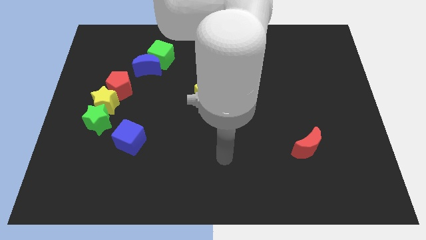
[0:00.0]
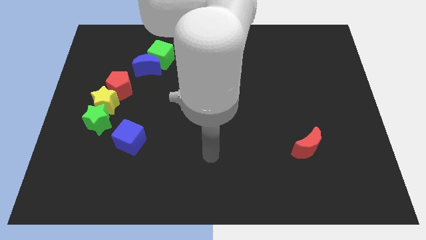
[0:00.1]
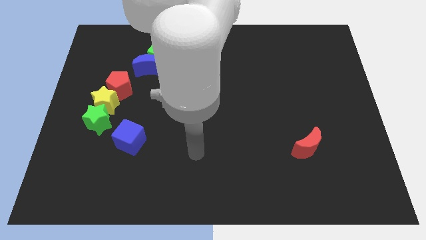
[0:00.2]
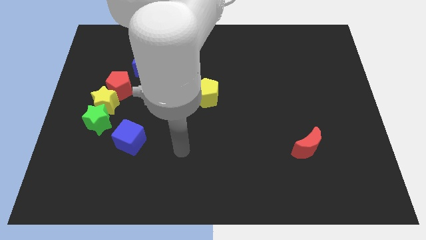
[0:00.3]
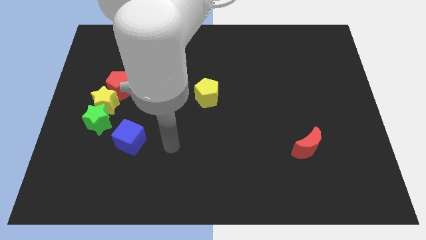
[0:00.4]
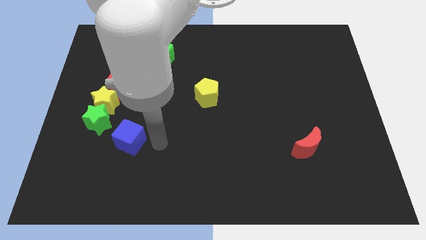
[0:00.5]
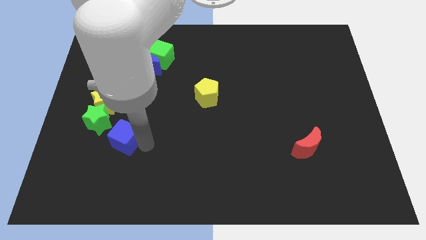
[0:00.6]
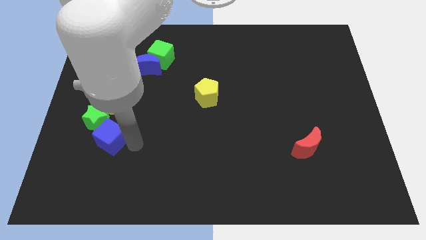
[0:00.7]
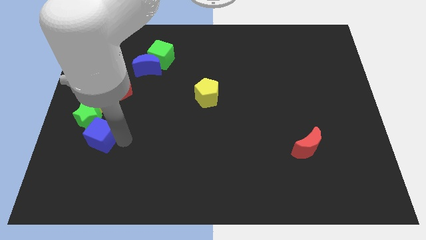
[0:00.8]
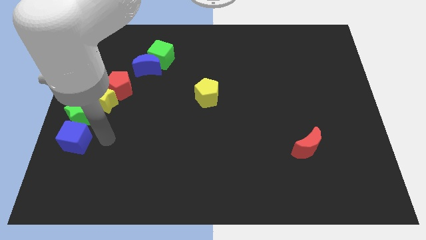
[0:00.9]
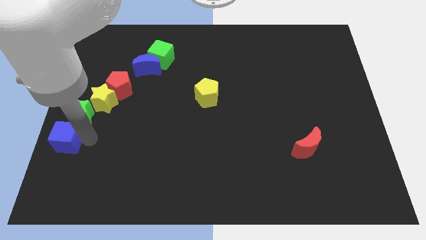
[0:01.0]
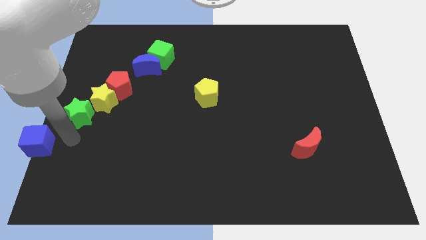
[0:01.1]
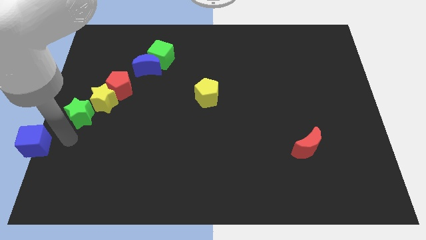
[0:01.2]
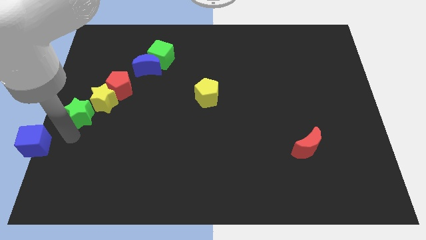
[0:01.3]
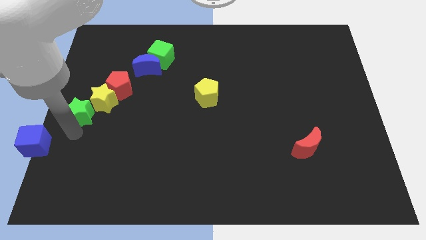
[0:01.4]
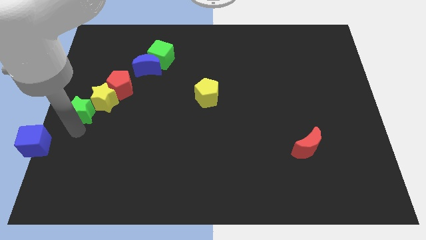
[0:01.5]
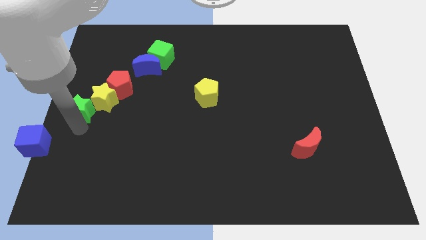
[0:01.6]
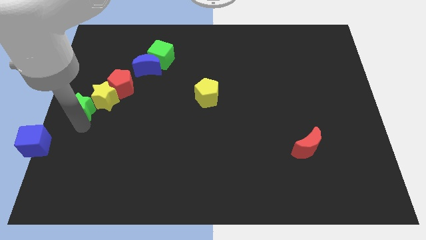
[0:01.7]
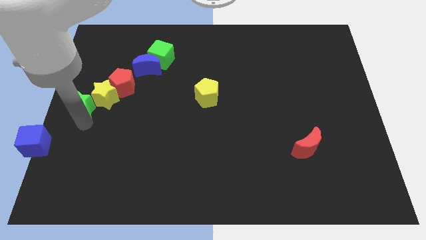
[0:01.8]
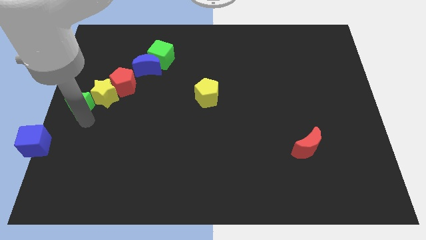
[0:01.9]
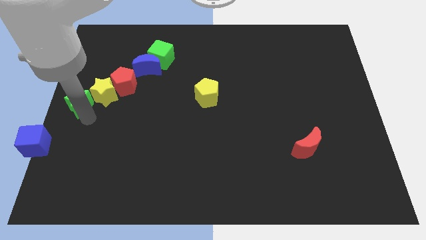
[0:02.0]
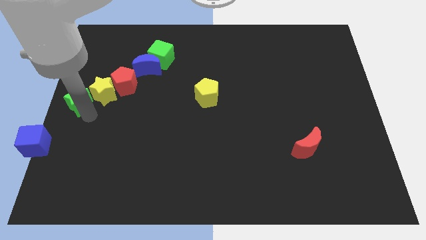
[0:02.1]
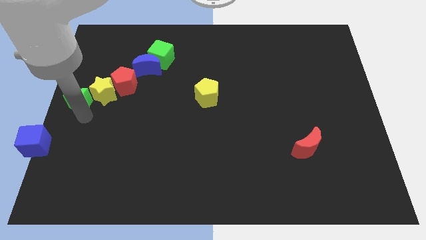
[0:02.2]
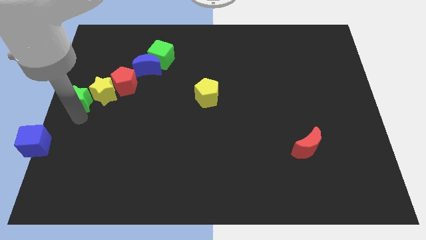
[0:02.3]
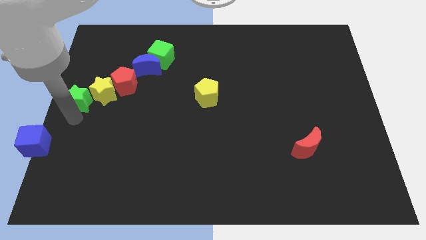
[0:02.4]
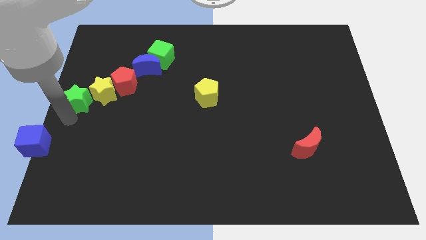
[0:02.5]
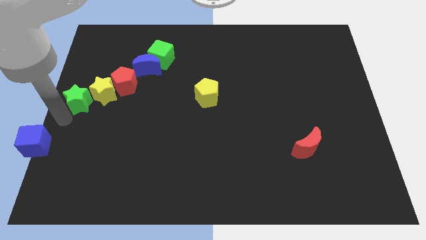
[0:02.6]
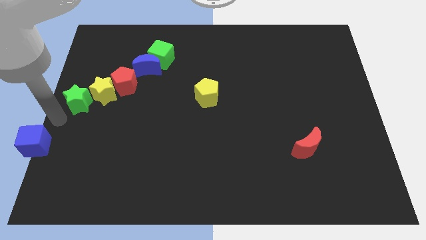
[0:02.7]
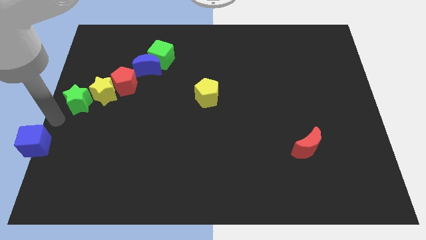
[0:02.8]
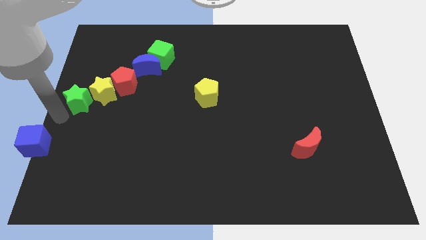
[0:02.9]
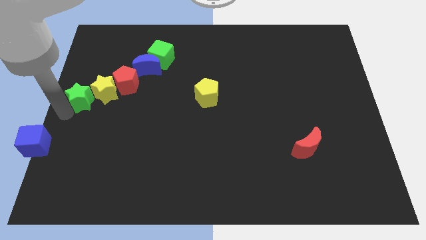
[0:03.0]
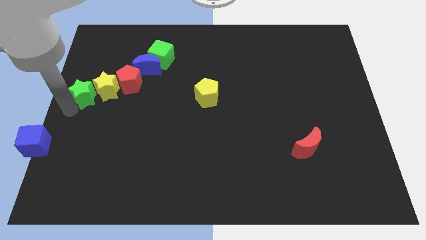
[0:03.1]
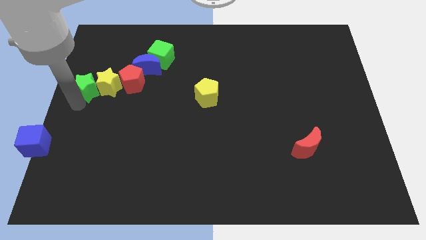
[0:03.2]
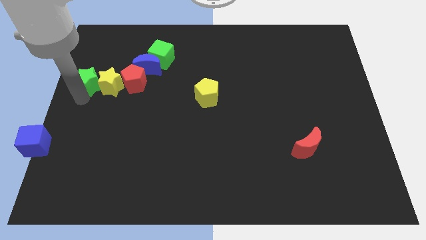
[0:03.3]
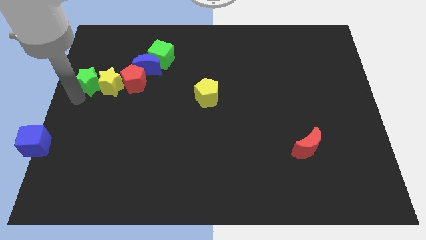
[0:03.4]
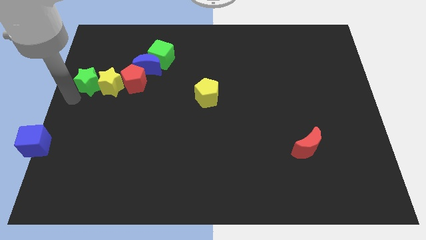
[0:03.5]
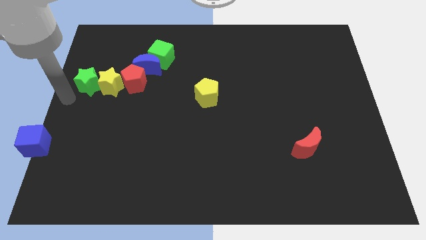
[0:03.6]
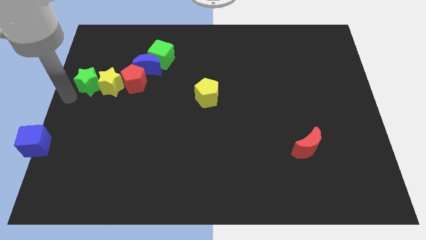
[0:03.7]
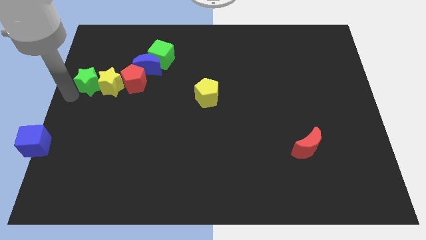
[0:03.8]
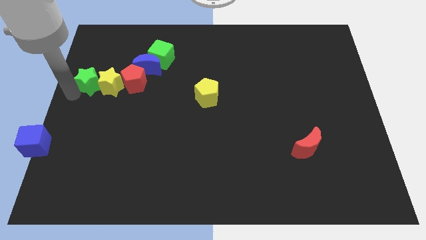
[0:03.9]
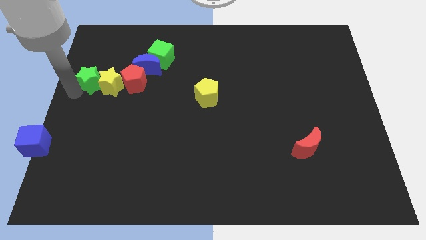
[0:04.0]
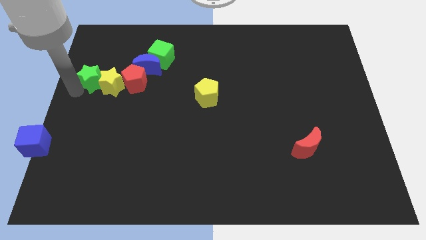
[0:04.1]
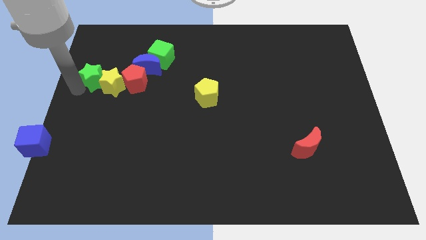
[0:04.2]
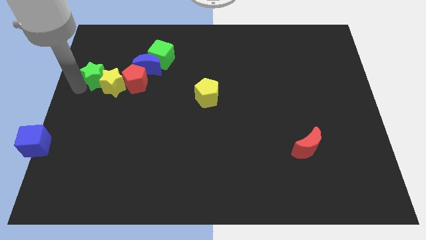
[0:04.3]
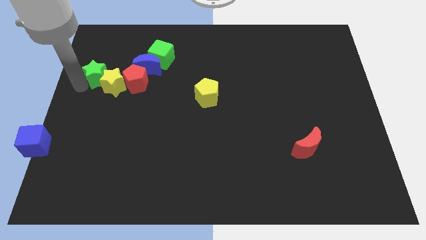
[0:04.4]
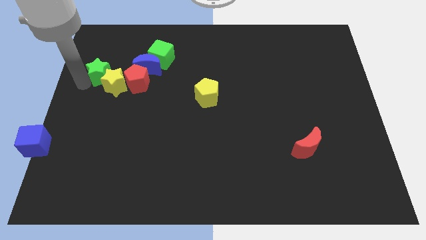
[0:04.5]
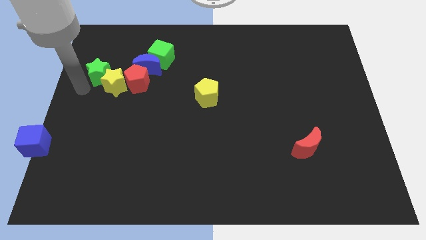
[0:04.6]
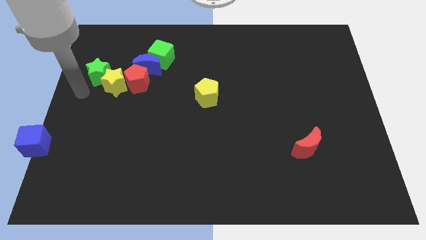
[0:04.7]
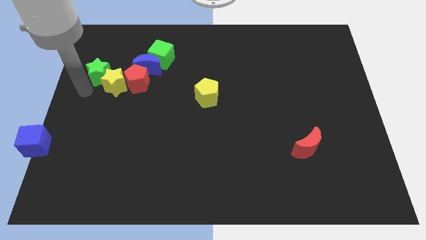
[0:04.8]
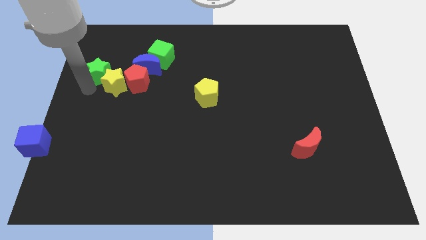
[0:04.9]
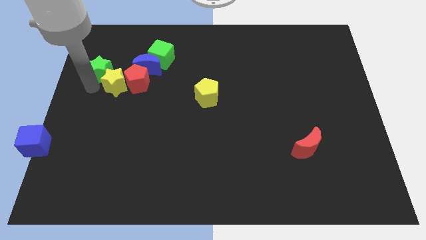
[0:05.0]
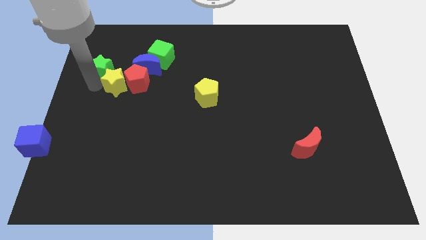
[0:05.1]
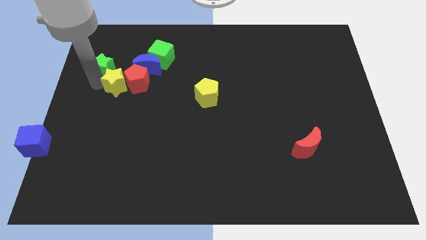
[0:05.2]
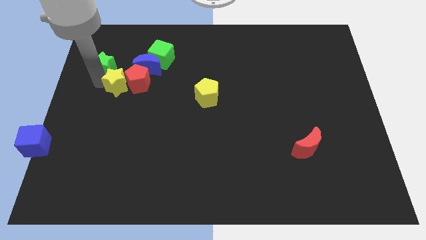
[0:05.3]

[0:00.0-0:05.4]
push the green star left of the green cube

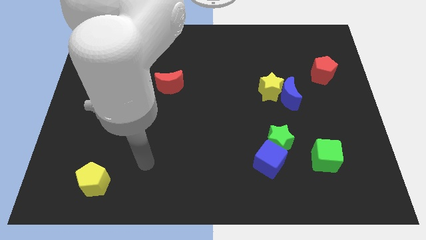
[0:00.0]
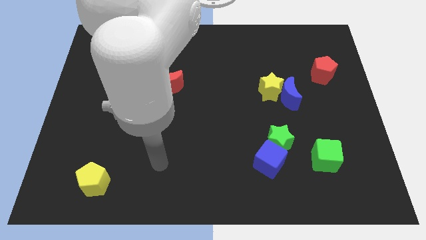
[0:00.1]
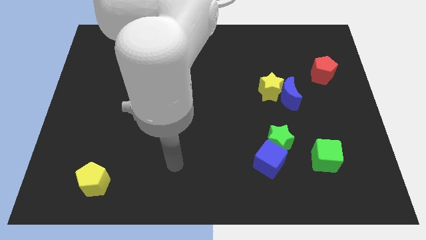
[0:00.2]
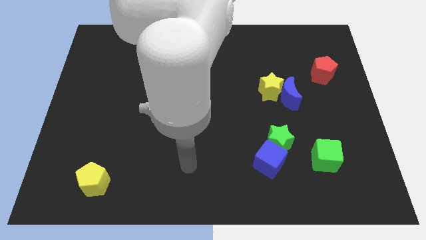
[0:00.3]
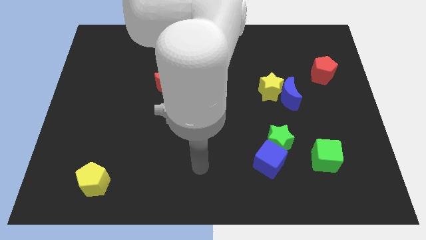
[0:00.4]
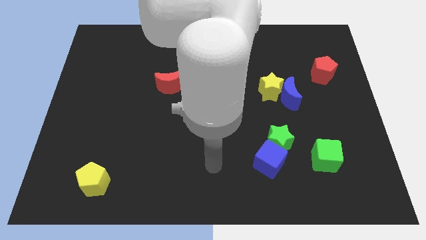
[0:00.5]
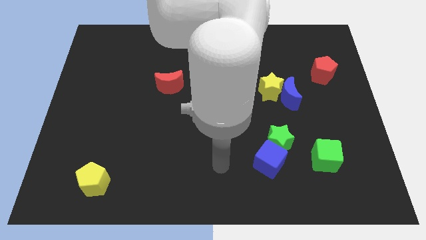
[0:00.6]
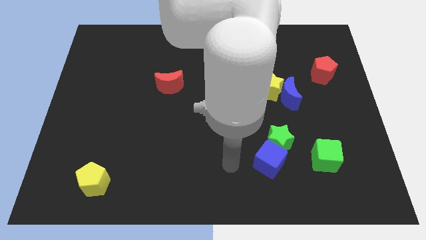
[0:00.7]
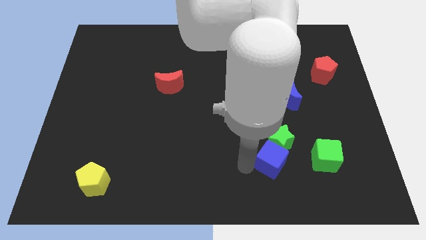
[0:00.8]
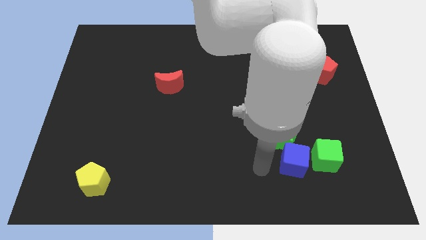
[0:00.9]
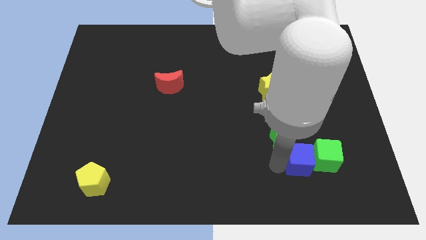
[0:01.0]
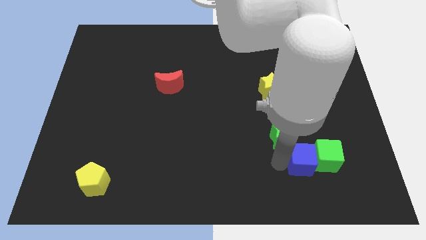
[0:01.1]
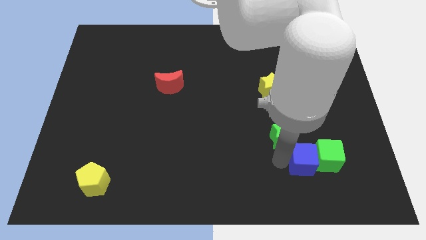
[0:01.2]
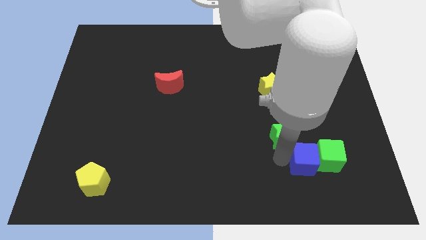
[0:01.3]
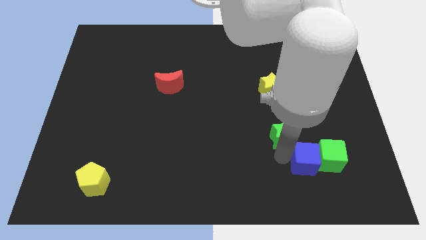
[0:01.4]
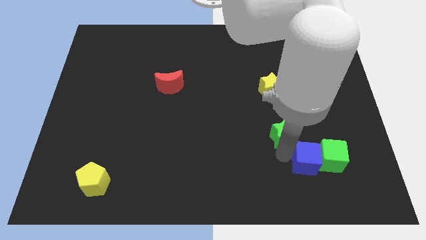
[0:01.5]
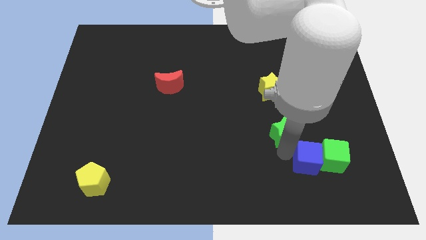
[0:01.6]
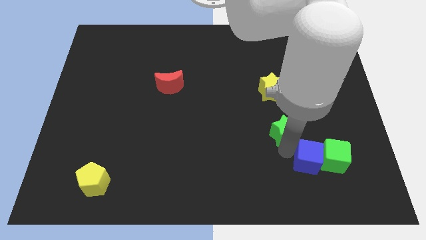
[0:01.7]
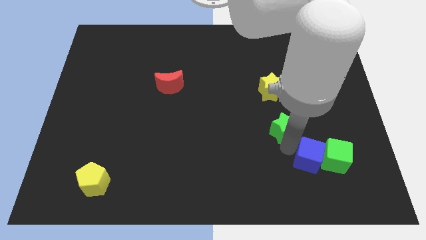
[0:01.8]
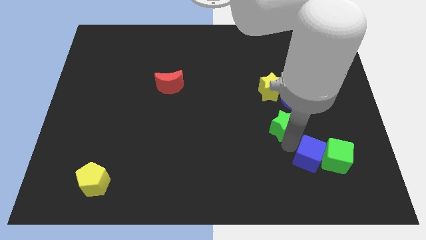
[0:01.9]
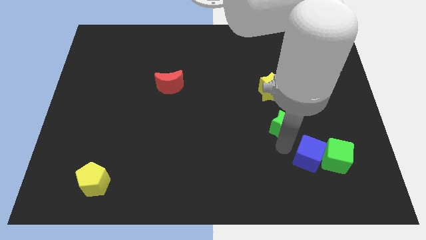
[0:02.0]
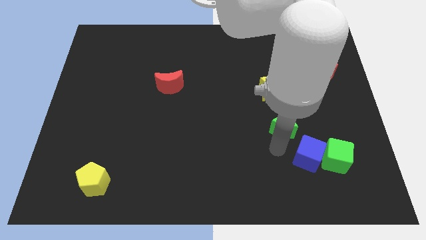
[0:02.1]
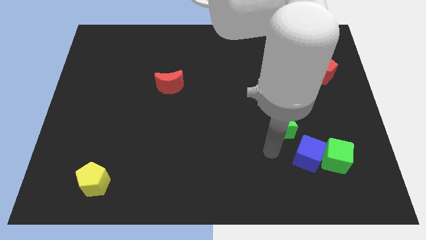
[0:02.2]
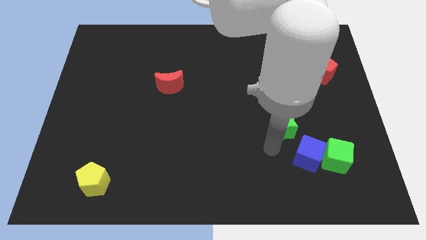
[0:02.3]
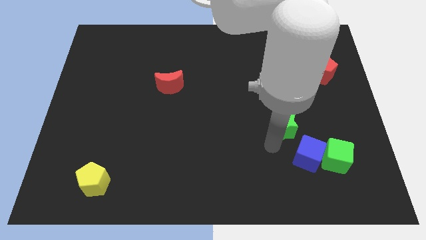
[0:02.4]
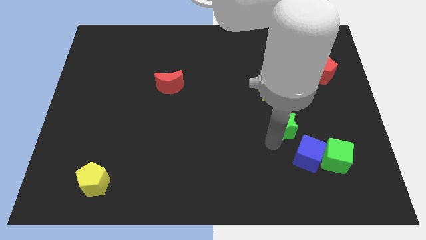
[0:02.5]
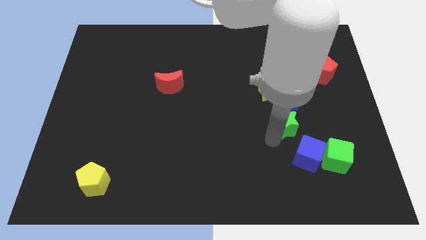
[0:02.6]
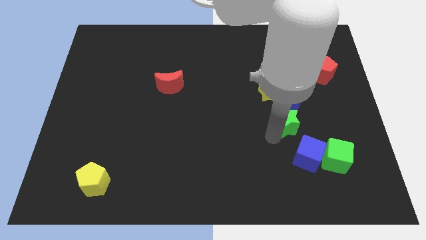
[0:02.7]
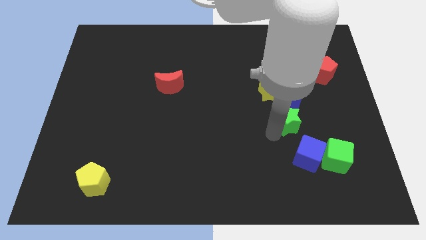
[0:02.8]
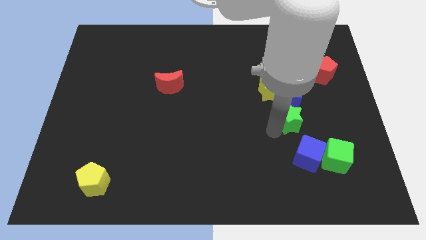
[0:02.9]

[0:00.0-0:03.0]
push the green star to the bottom right side of the yellow star
